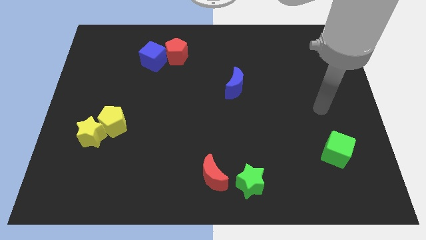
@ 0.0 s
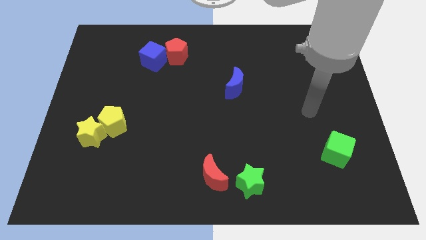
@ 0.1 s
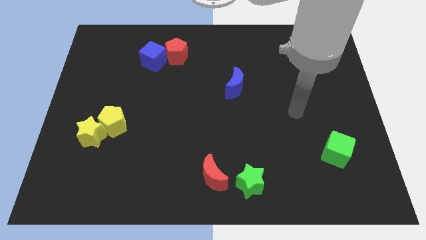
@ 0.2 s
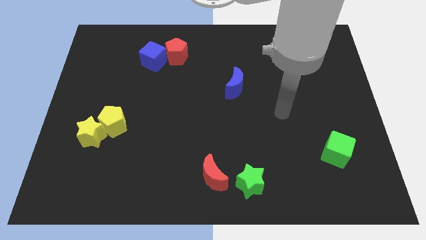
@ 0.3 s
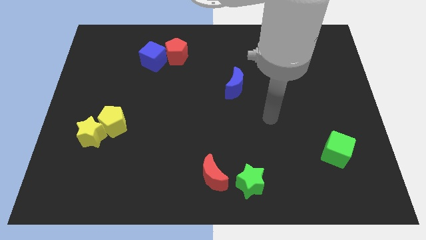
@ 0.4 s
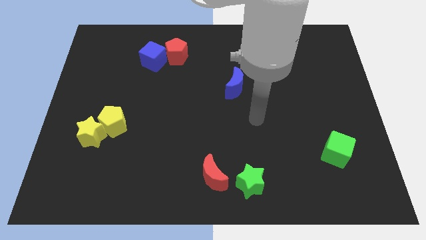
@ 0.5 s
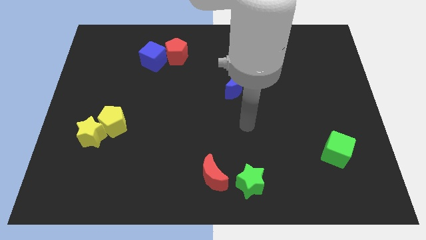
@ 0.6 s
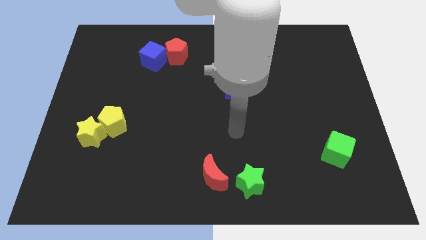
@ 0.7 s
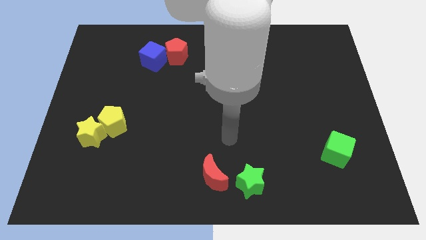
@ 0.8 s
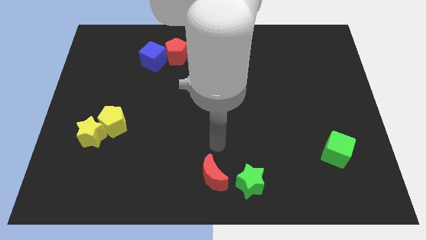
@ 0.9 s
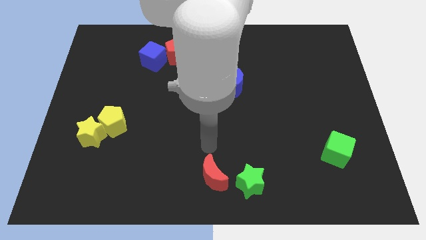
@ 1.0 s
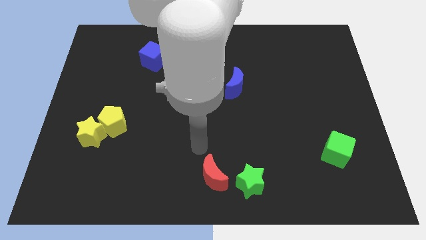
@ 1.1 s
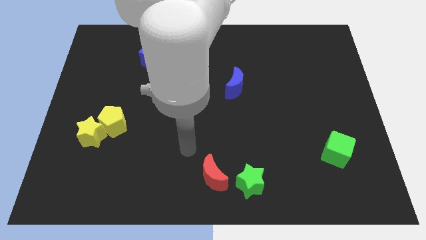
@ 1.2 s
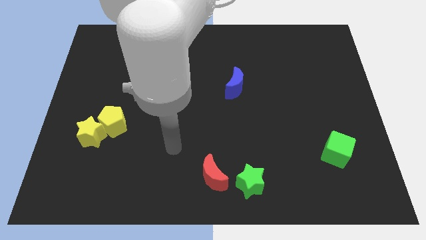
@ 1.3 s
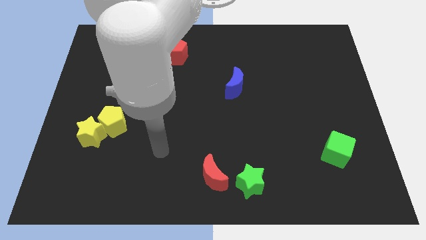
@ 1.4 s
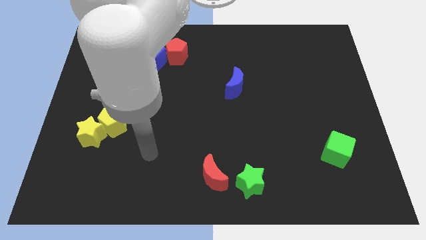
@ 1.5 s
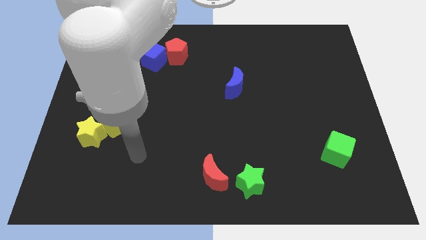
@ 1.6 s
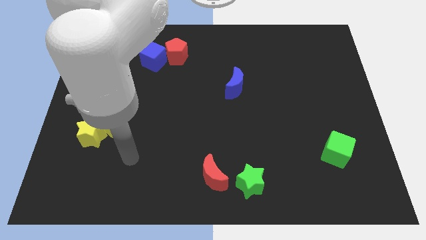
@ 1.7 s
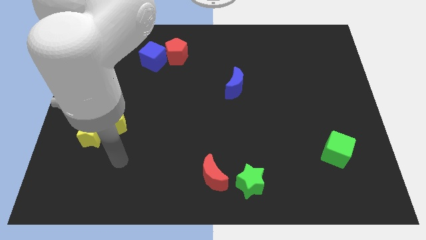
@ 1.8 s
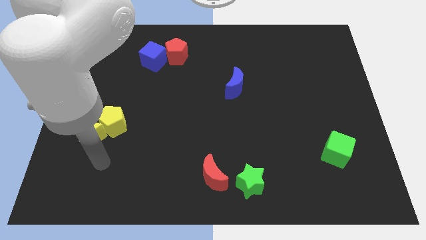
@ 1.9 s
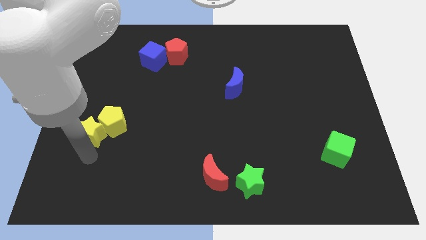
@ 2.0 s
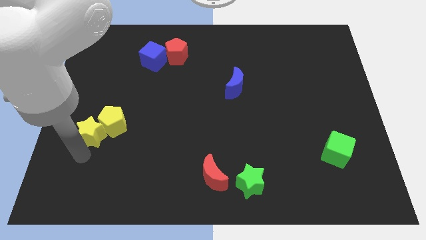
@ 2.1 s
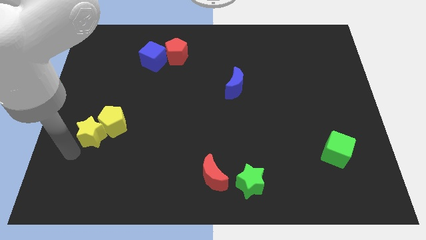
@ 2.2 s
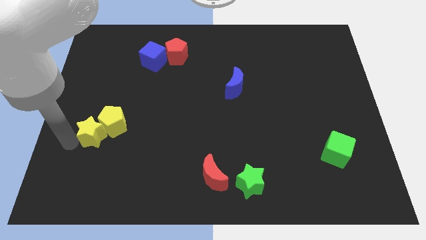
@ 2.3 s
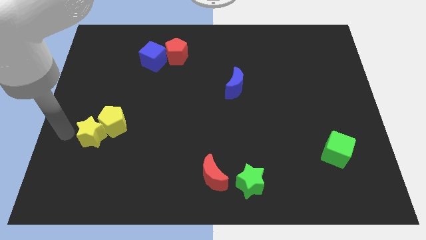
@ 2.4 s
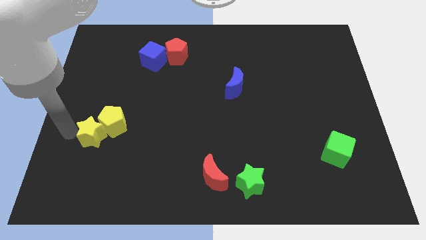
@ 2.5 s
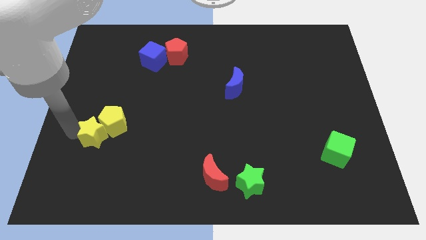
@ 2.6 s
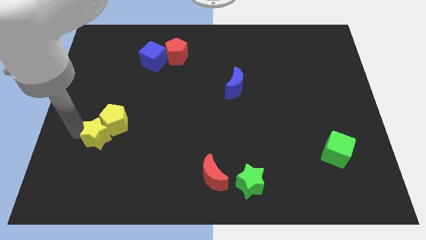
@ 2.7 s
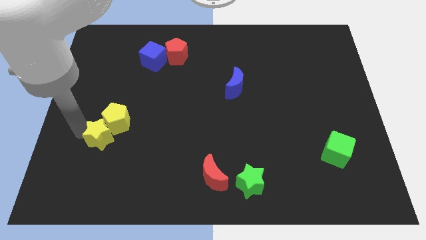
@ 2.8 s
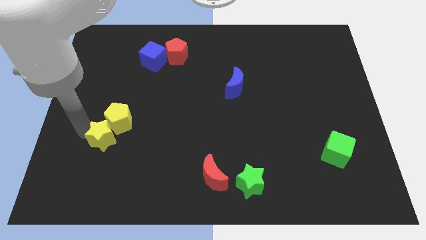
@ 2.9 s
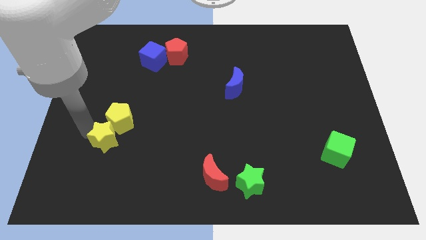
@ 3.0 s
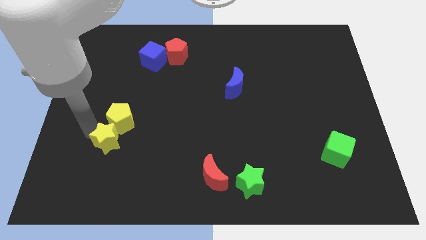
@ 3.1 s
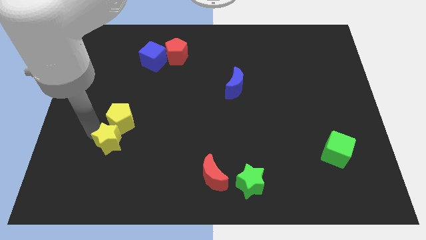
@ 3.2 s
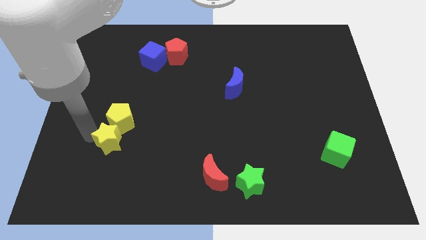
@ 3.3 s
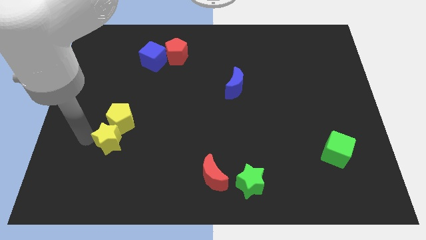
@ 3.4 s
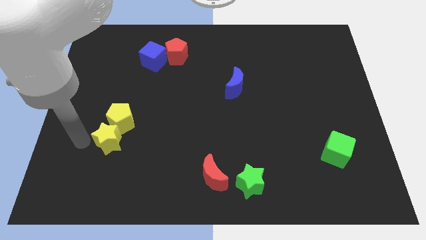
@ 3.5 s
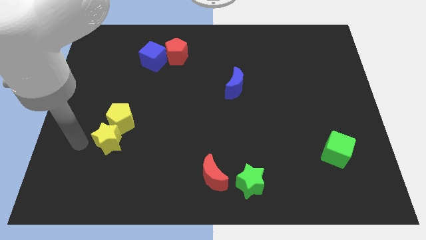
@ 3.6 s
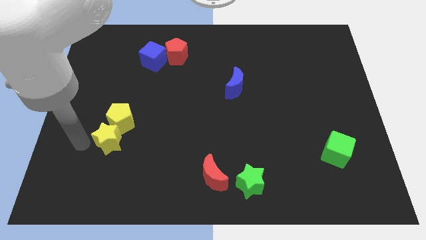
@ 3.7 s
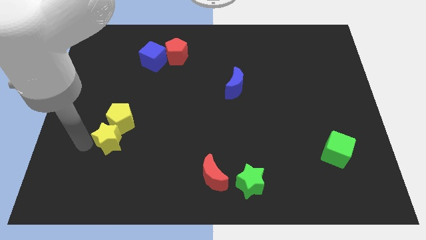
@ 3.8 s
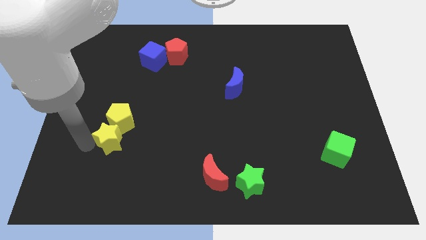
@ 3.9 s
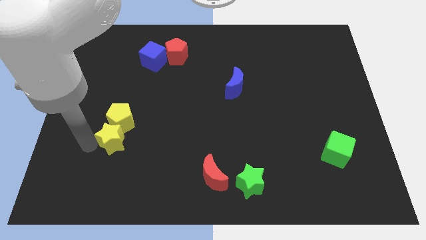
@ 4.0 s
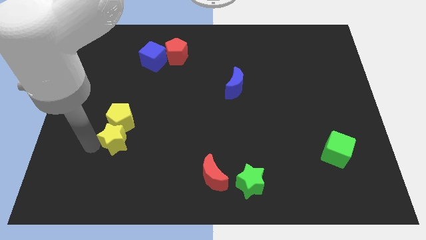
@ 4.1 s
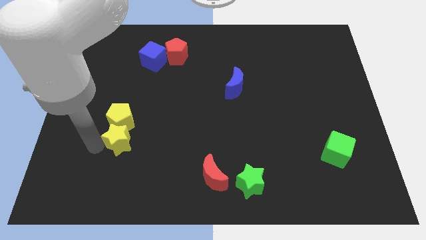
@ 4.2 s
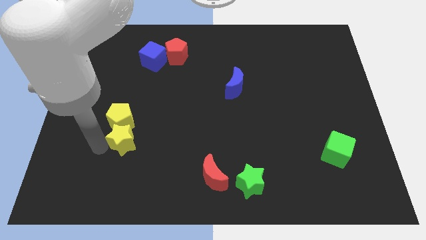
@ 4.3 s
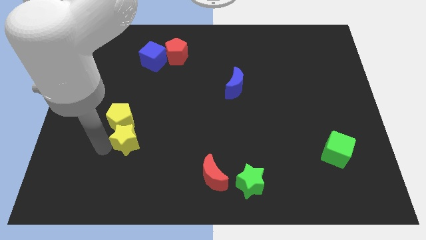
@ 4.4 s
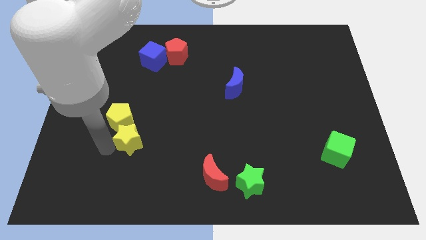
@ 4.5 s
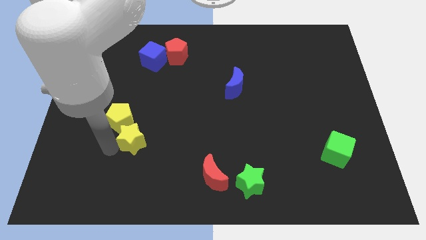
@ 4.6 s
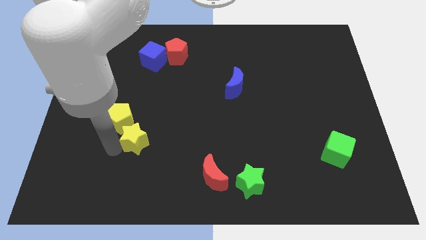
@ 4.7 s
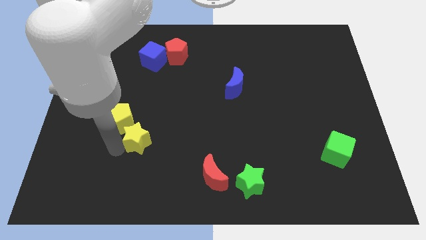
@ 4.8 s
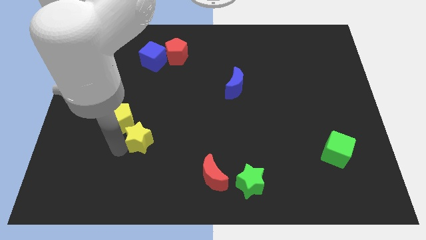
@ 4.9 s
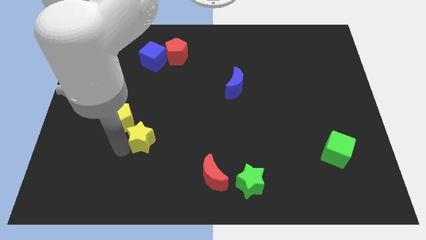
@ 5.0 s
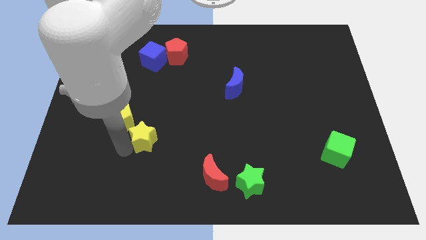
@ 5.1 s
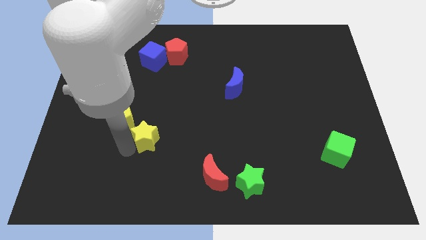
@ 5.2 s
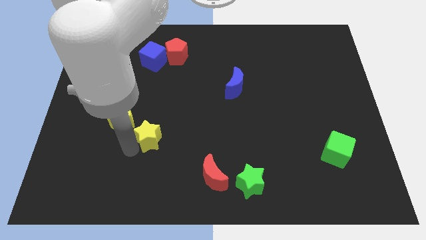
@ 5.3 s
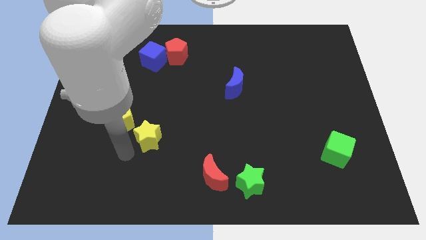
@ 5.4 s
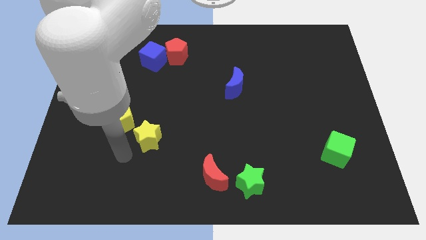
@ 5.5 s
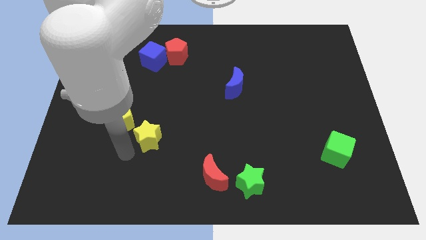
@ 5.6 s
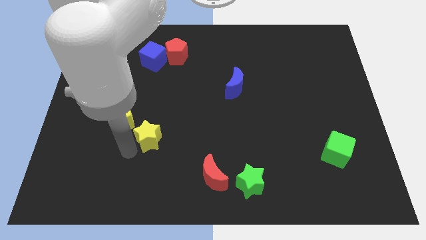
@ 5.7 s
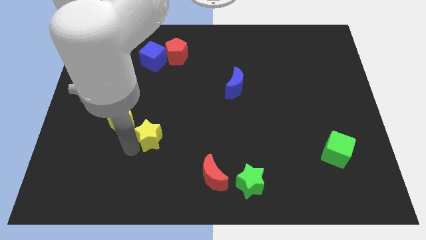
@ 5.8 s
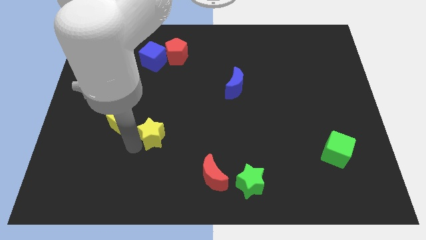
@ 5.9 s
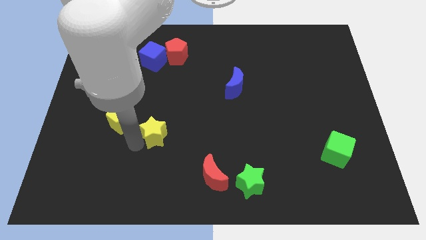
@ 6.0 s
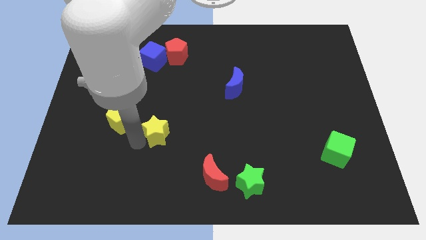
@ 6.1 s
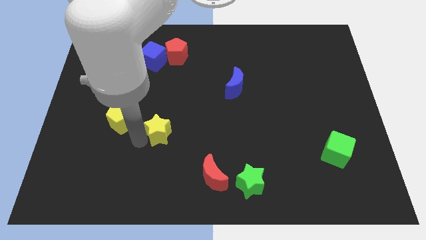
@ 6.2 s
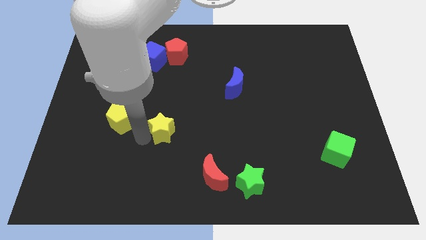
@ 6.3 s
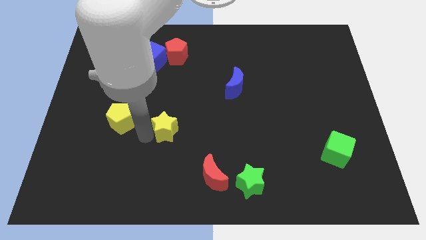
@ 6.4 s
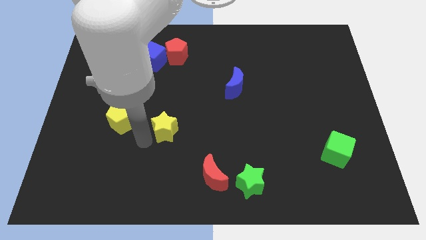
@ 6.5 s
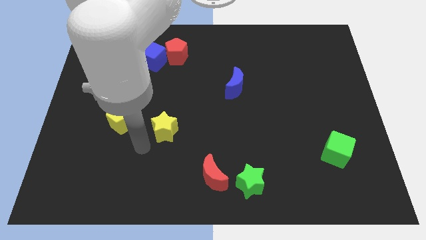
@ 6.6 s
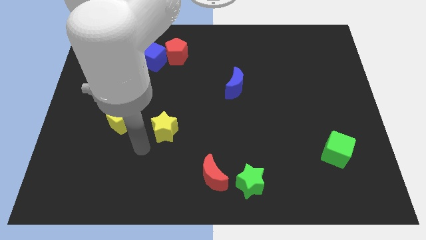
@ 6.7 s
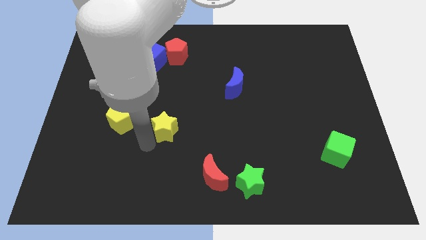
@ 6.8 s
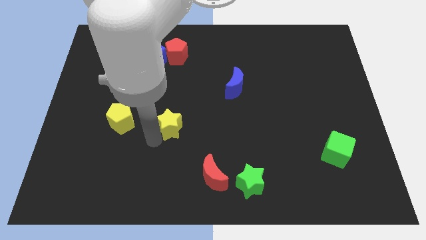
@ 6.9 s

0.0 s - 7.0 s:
push the yellow star to the middle of the board
